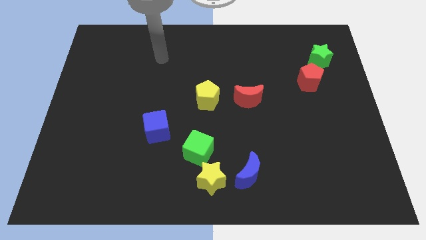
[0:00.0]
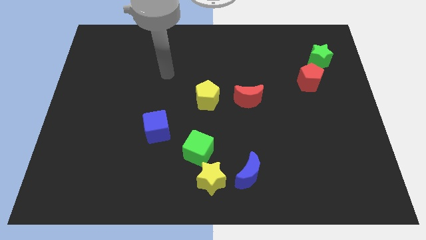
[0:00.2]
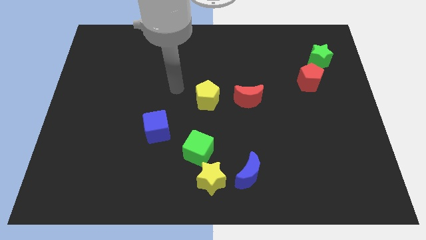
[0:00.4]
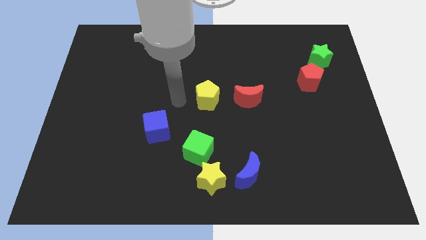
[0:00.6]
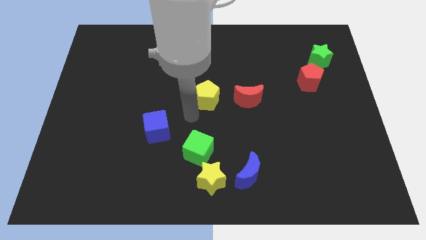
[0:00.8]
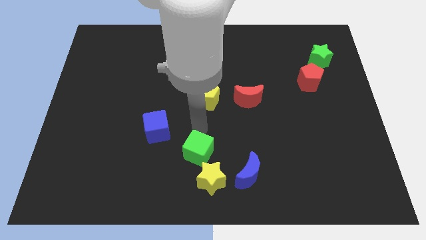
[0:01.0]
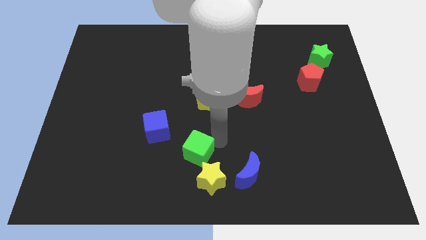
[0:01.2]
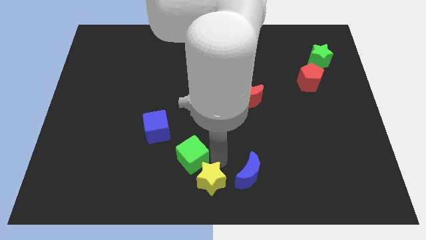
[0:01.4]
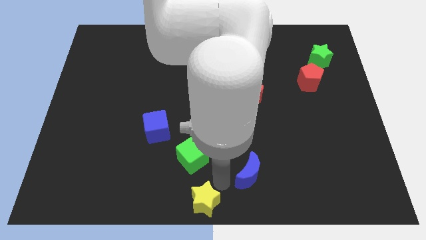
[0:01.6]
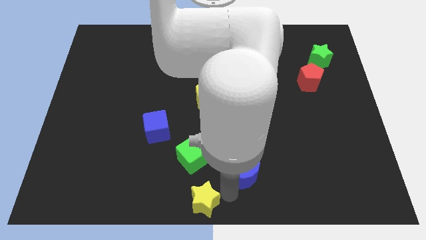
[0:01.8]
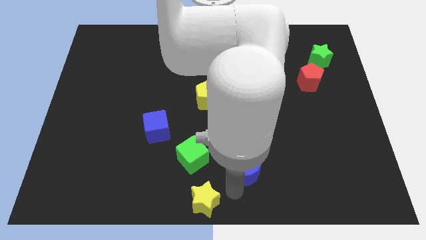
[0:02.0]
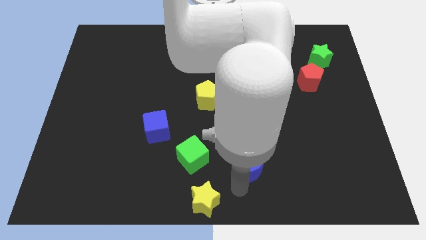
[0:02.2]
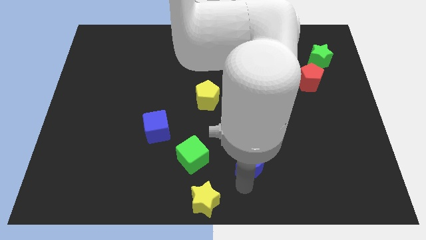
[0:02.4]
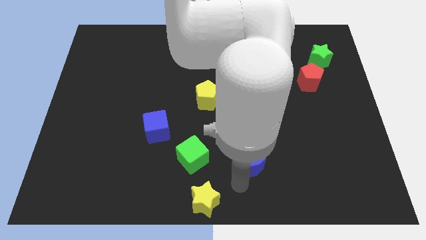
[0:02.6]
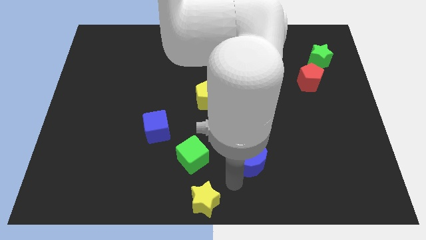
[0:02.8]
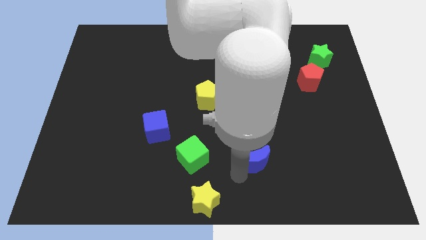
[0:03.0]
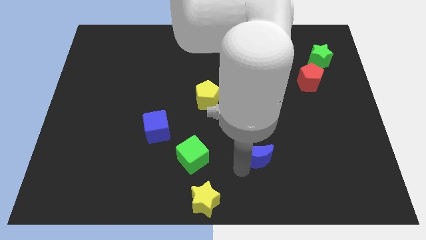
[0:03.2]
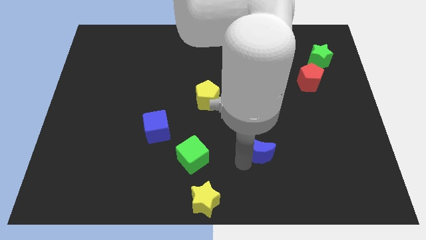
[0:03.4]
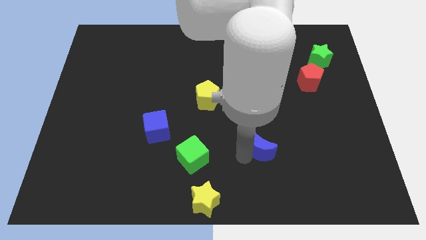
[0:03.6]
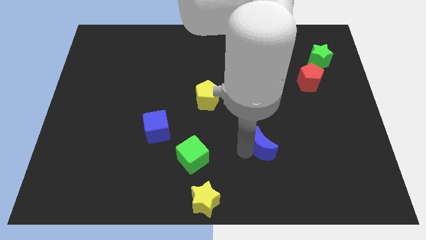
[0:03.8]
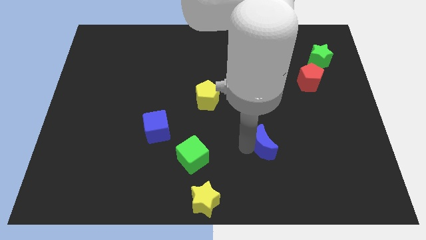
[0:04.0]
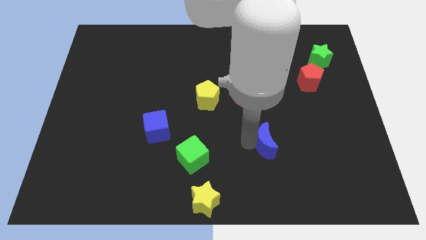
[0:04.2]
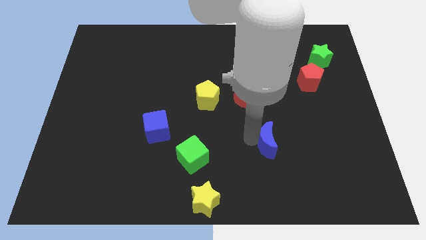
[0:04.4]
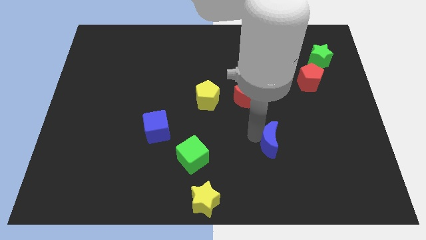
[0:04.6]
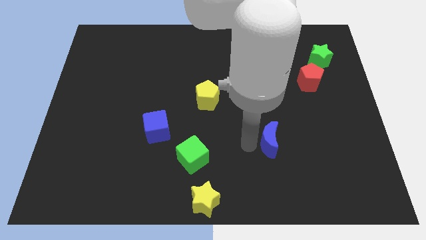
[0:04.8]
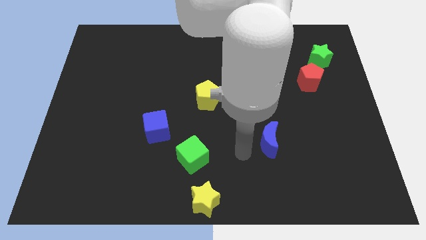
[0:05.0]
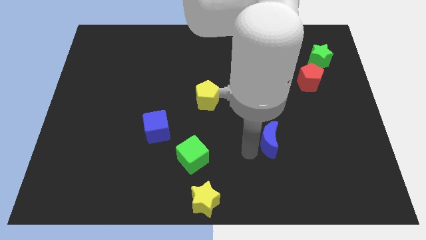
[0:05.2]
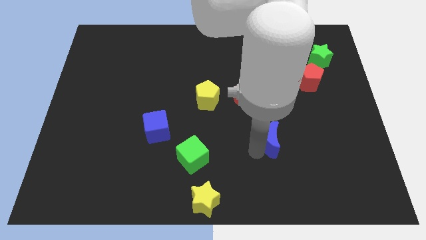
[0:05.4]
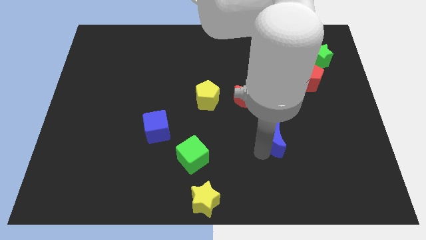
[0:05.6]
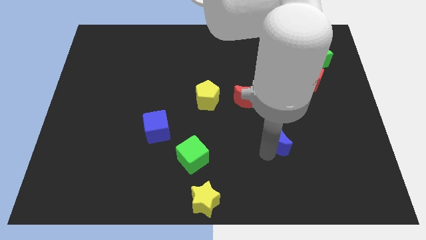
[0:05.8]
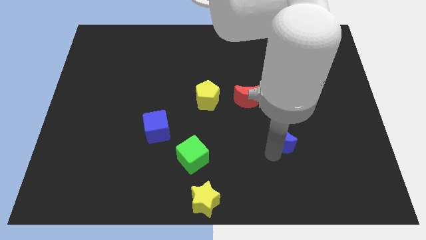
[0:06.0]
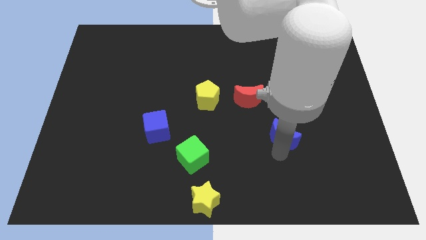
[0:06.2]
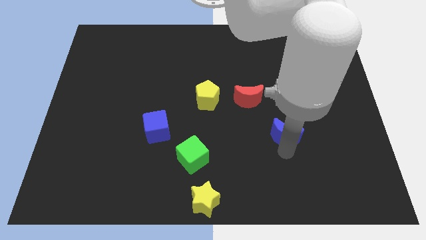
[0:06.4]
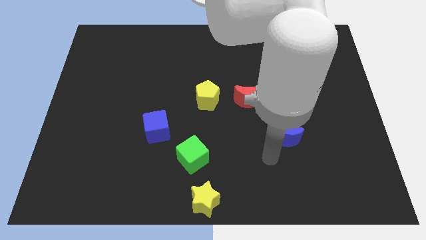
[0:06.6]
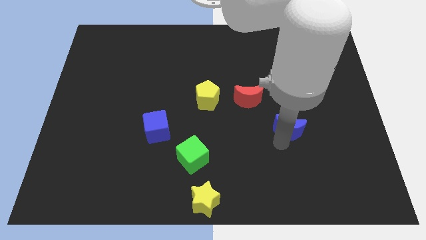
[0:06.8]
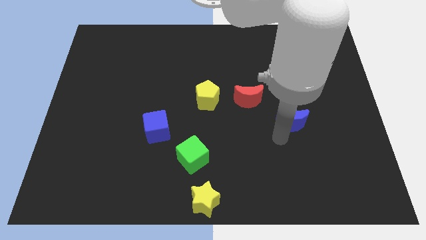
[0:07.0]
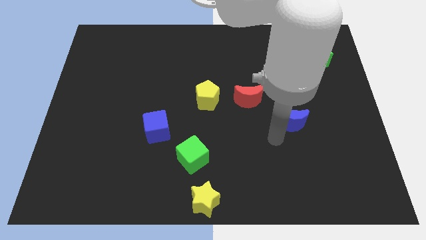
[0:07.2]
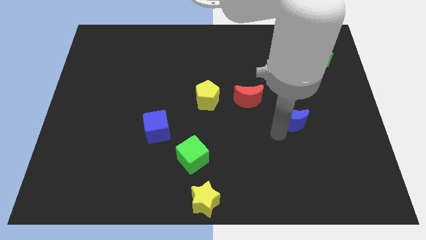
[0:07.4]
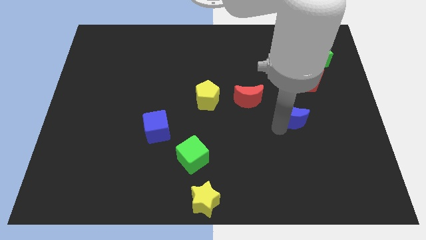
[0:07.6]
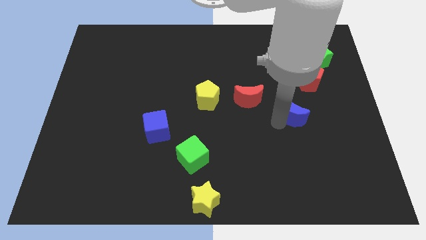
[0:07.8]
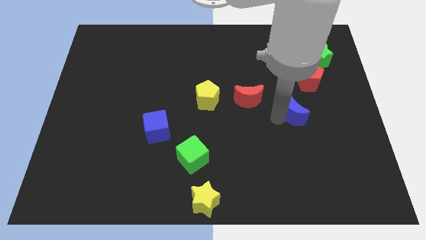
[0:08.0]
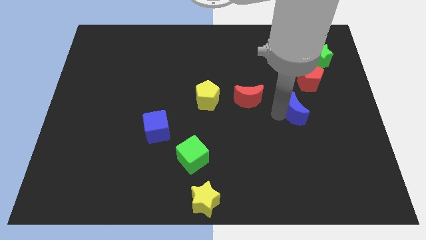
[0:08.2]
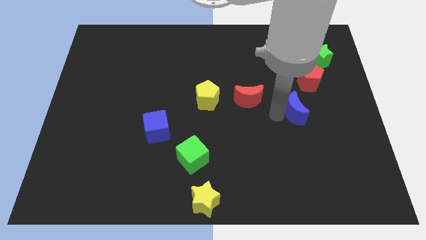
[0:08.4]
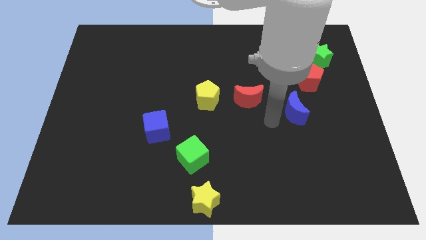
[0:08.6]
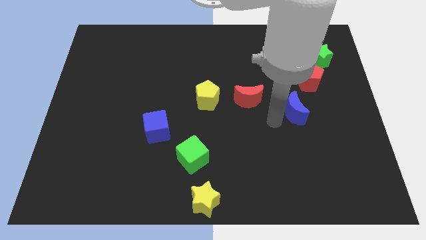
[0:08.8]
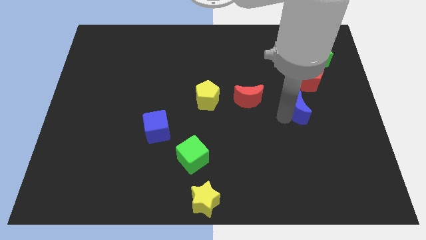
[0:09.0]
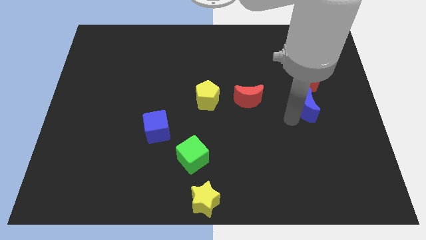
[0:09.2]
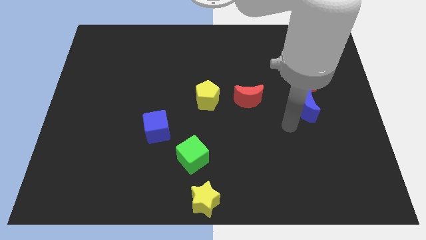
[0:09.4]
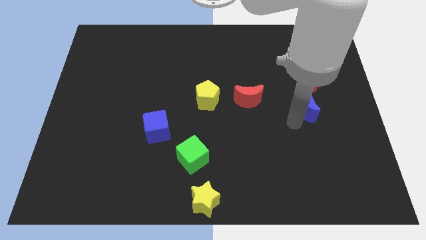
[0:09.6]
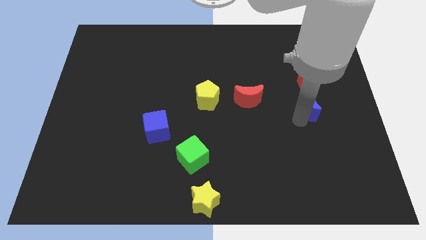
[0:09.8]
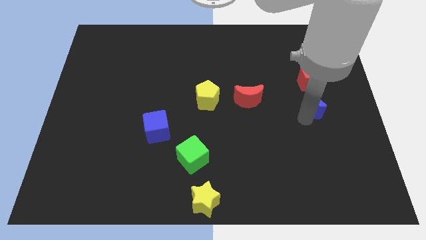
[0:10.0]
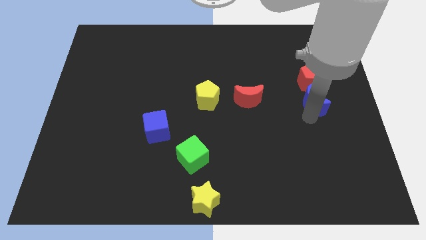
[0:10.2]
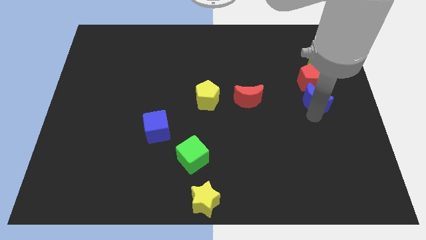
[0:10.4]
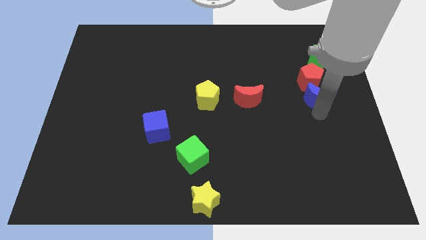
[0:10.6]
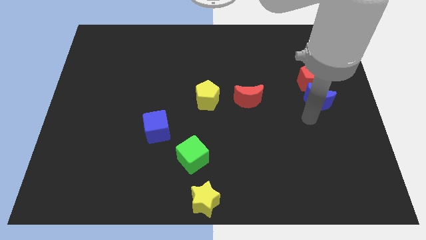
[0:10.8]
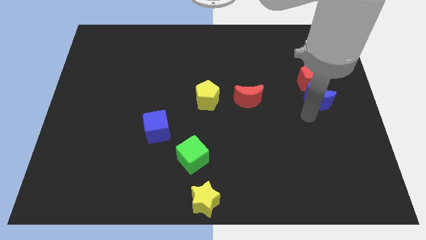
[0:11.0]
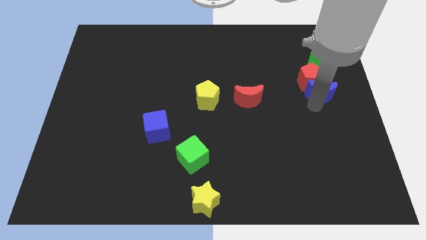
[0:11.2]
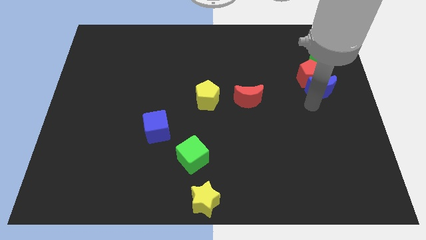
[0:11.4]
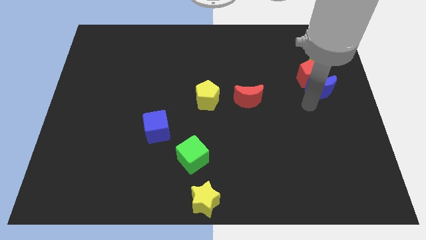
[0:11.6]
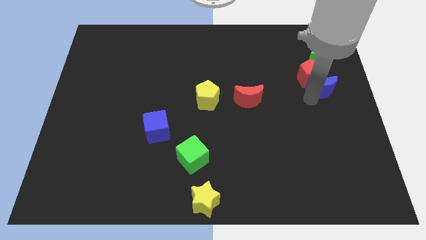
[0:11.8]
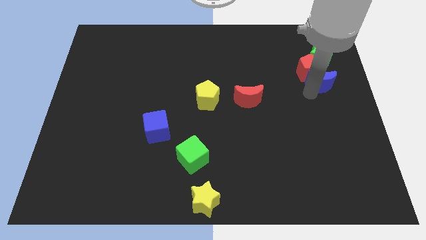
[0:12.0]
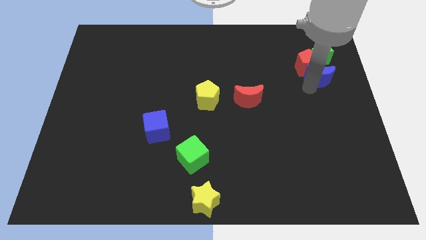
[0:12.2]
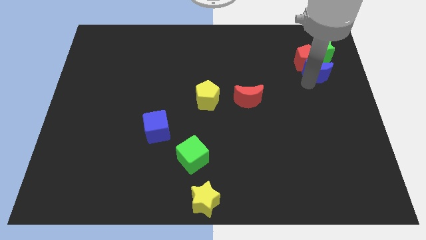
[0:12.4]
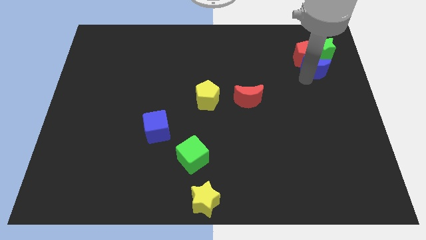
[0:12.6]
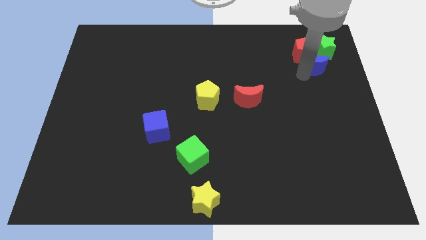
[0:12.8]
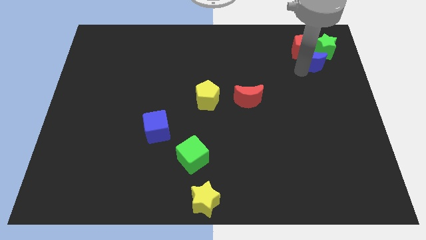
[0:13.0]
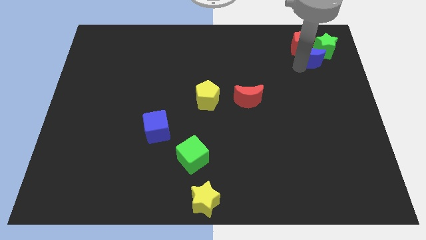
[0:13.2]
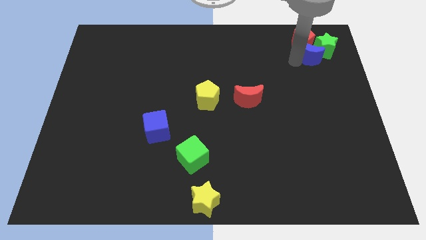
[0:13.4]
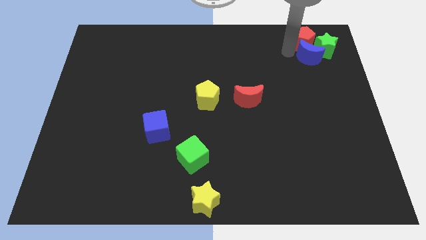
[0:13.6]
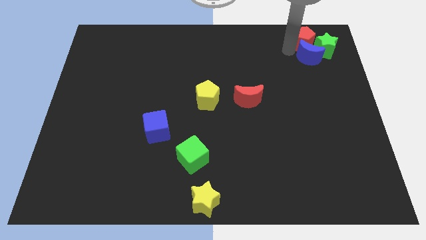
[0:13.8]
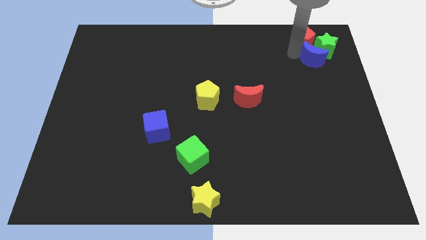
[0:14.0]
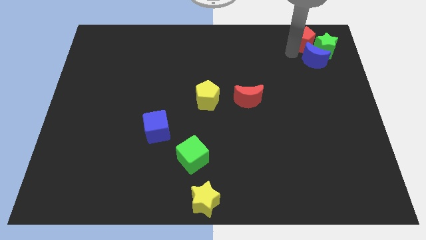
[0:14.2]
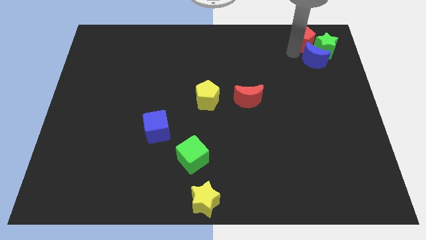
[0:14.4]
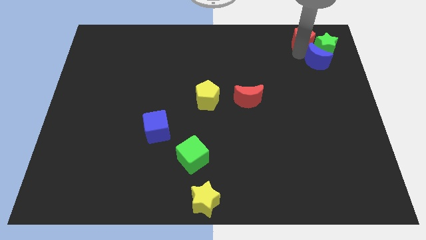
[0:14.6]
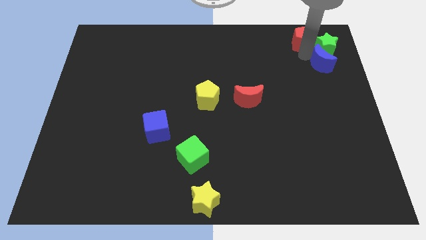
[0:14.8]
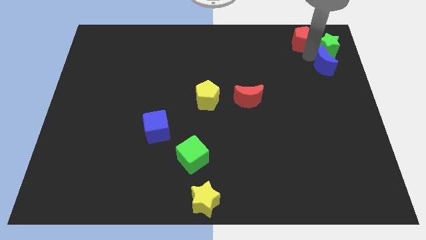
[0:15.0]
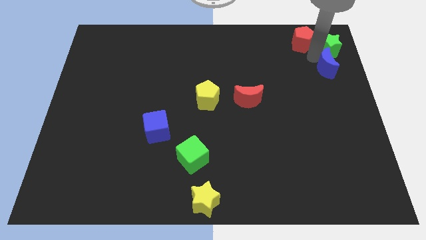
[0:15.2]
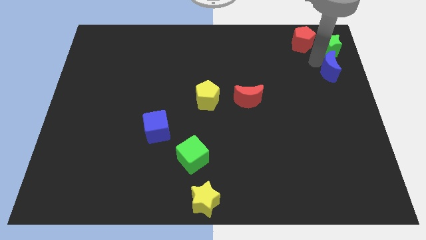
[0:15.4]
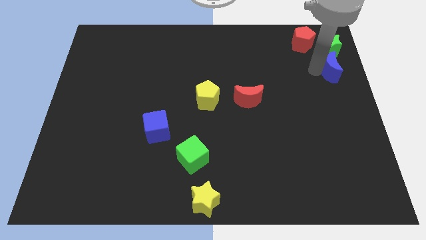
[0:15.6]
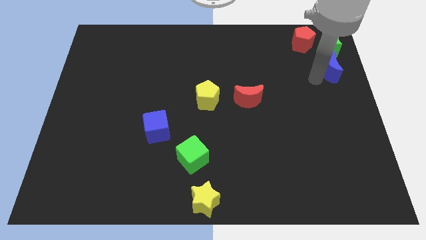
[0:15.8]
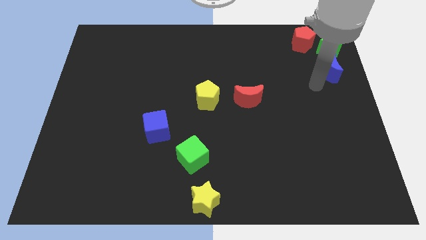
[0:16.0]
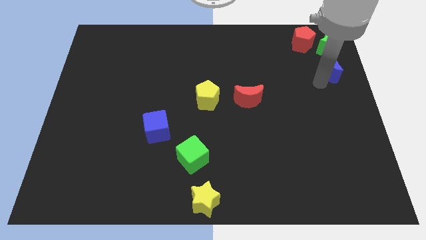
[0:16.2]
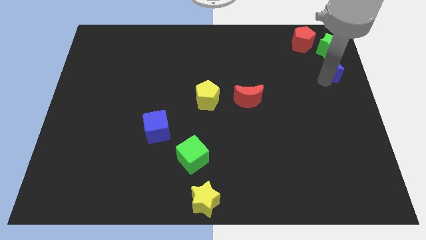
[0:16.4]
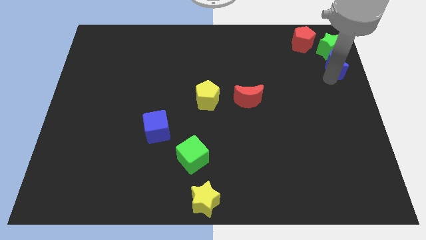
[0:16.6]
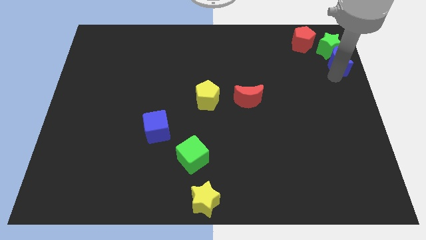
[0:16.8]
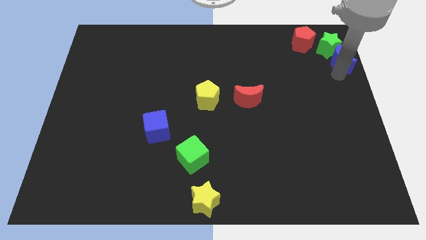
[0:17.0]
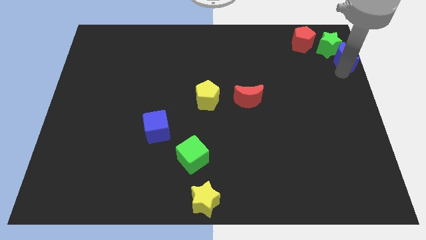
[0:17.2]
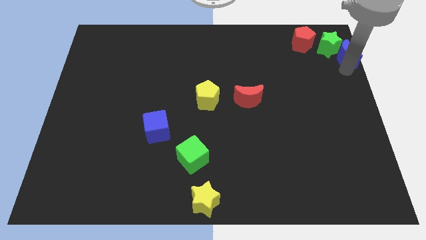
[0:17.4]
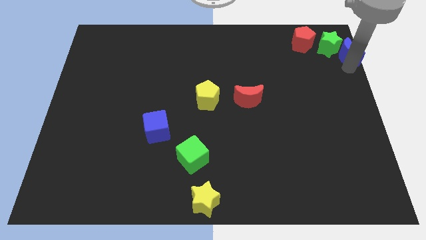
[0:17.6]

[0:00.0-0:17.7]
put the blue moon to the upper right corner
